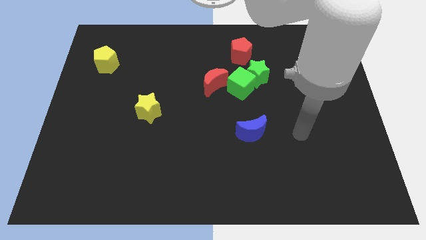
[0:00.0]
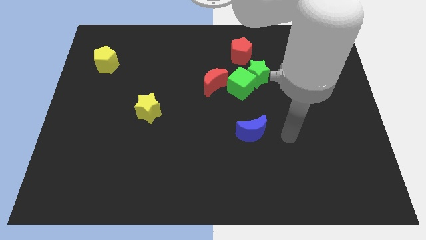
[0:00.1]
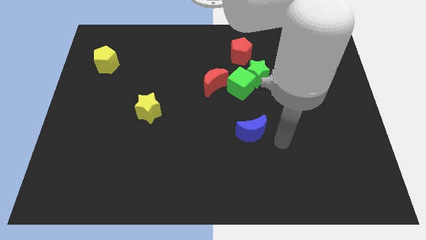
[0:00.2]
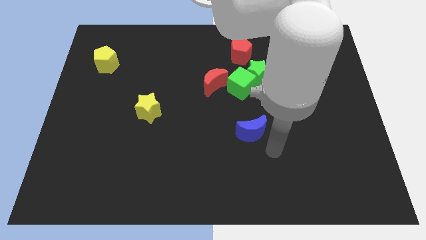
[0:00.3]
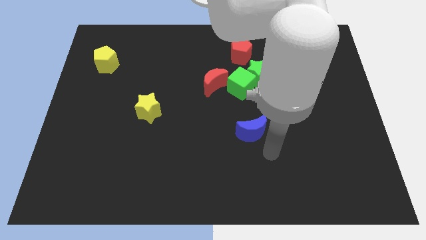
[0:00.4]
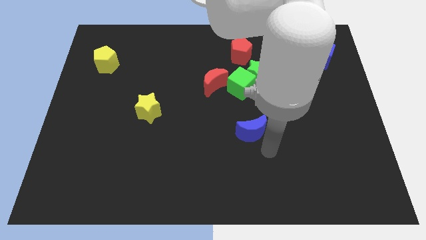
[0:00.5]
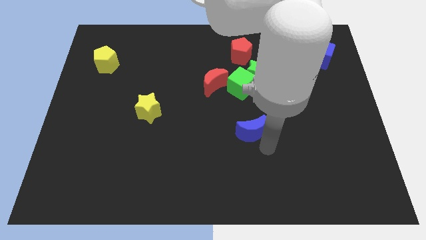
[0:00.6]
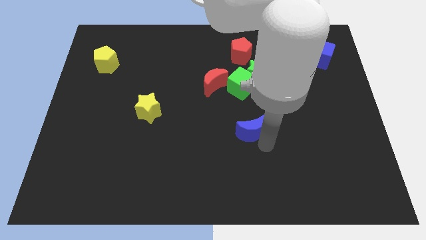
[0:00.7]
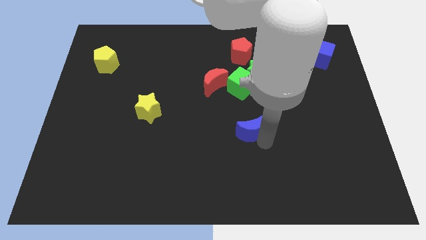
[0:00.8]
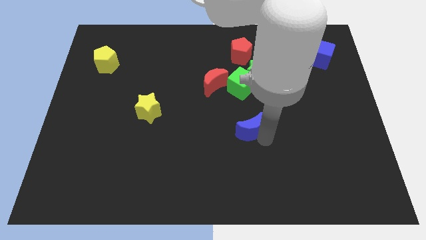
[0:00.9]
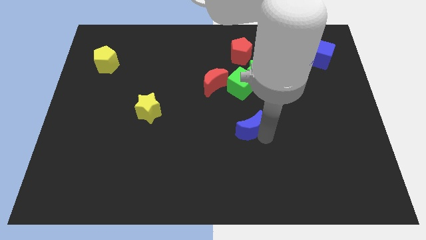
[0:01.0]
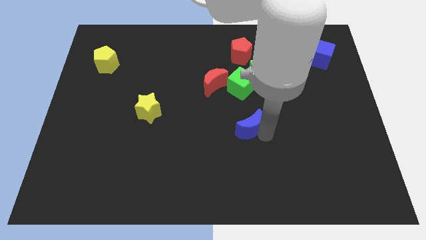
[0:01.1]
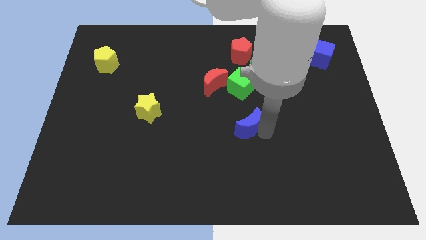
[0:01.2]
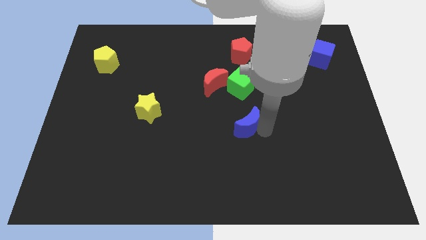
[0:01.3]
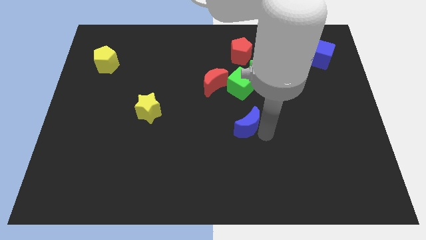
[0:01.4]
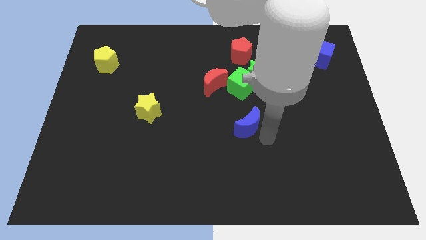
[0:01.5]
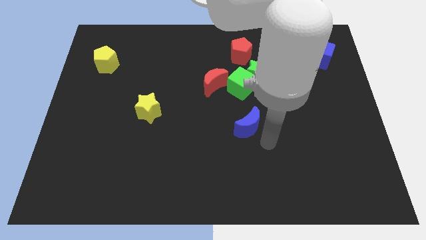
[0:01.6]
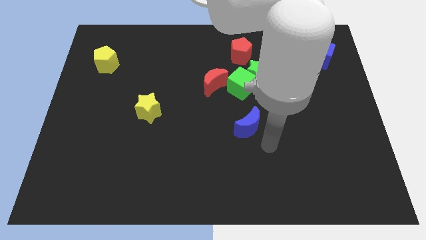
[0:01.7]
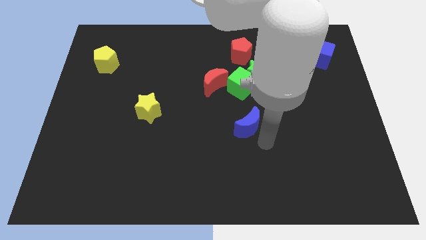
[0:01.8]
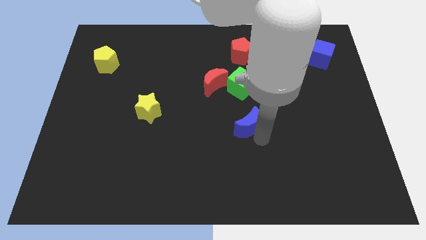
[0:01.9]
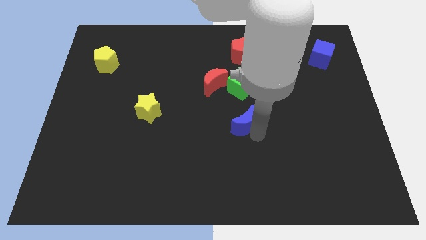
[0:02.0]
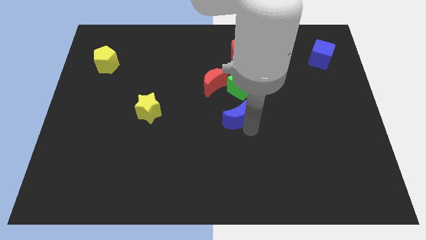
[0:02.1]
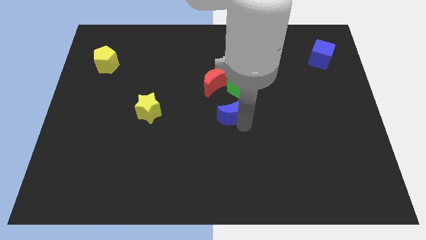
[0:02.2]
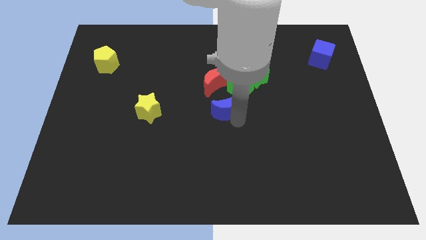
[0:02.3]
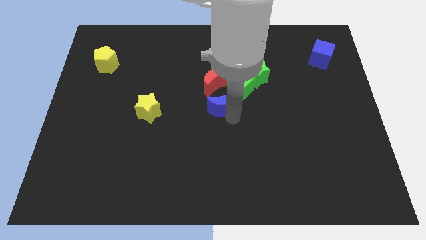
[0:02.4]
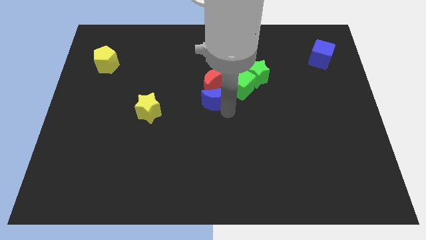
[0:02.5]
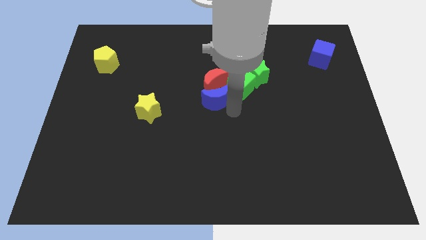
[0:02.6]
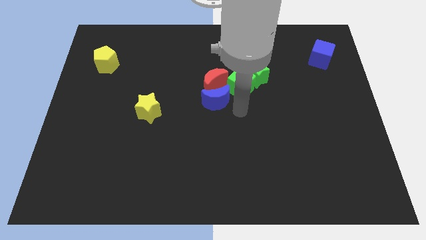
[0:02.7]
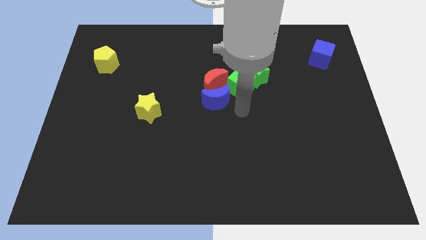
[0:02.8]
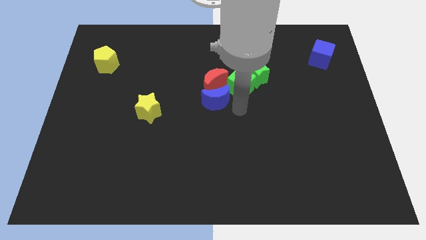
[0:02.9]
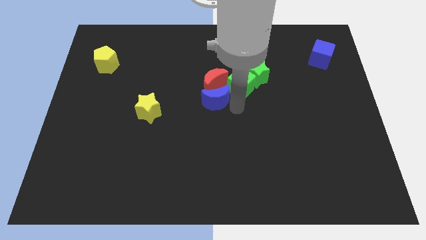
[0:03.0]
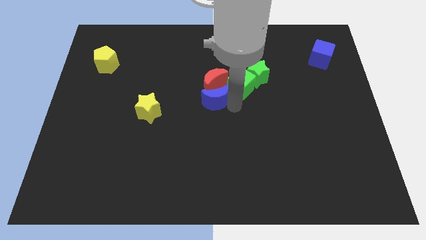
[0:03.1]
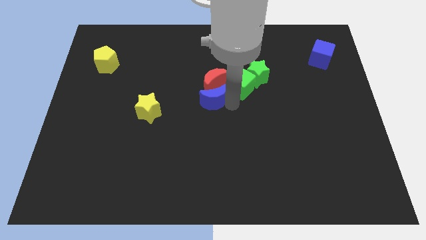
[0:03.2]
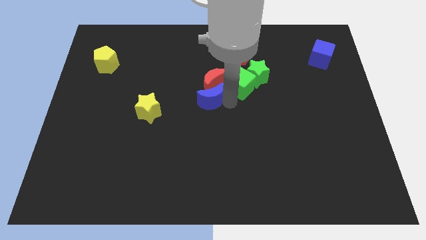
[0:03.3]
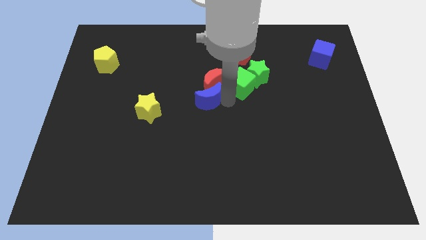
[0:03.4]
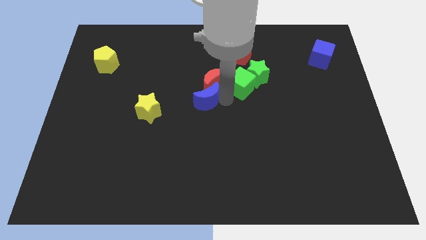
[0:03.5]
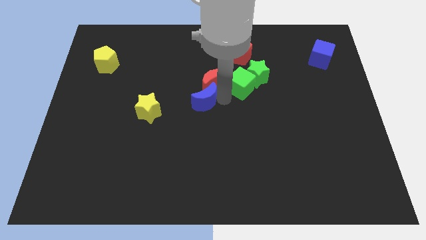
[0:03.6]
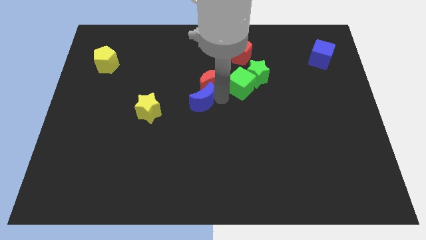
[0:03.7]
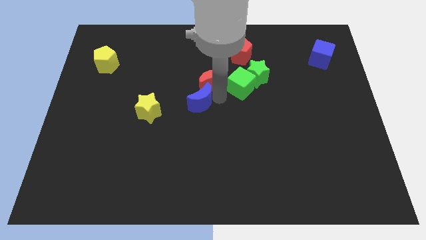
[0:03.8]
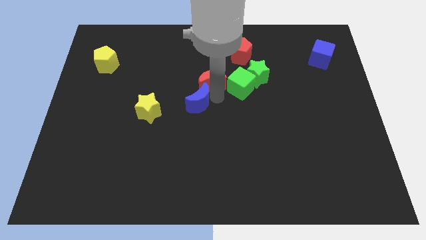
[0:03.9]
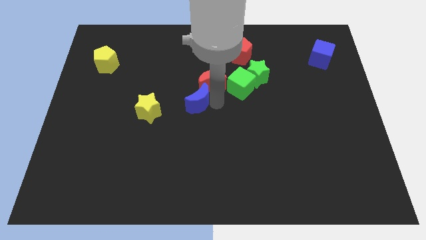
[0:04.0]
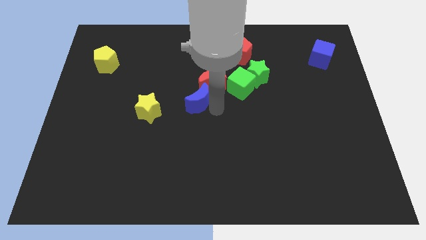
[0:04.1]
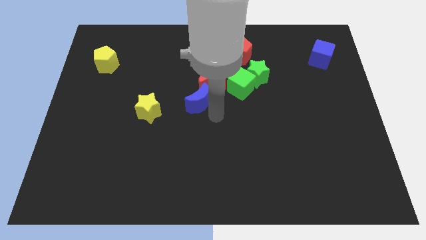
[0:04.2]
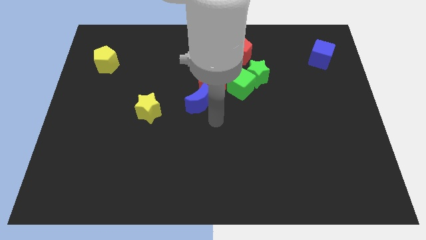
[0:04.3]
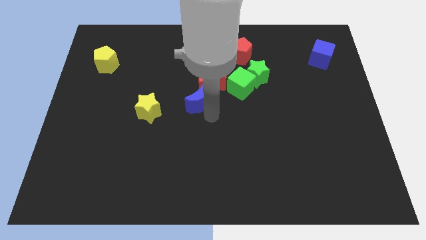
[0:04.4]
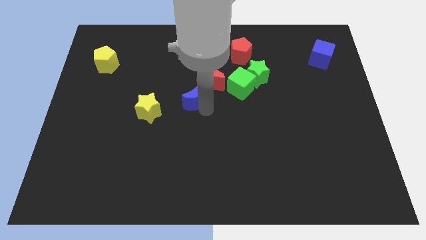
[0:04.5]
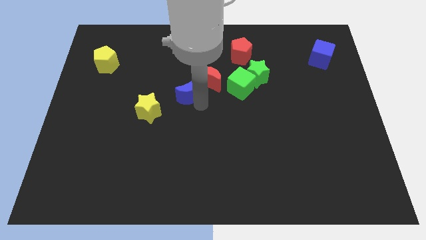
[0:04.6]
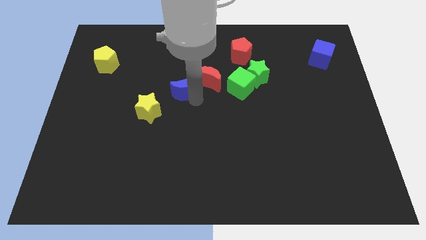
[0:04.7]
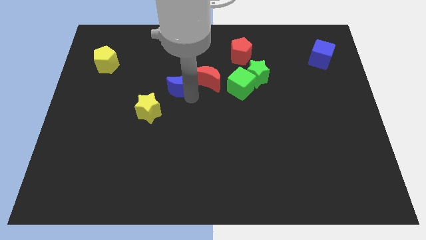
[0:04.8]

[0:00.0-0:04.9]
push the blue moon up and left

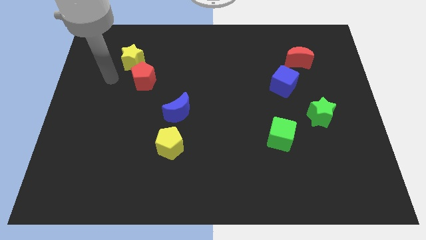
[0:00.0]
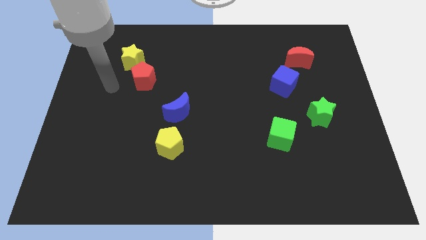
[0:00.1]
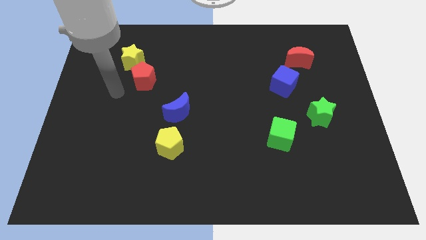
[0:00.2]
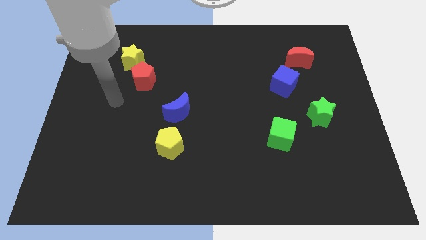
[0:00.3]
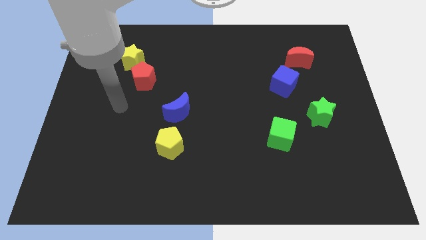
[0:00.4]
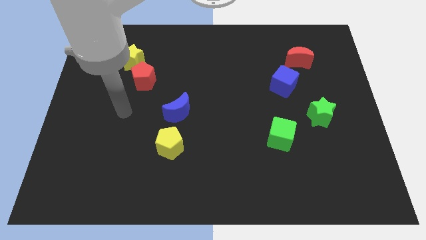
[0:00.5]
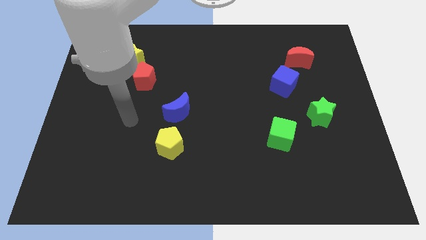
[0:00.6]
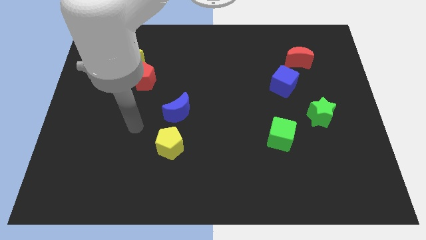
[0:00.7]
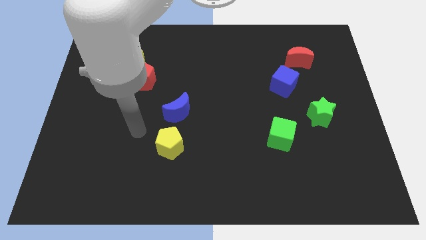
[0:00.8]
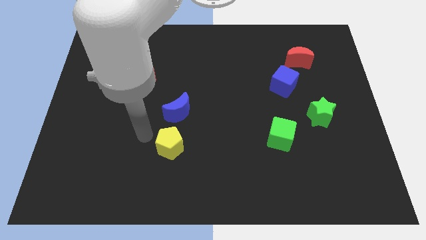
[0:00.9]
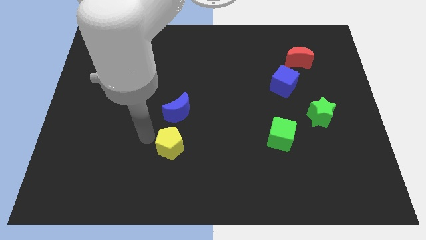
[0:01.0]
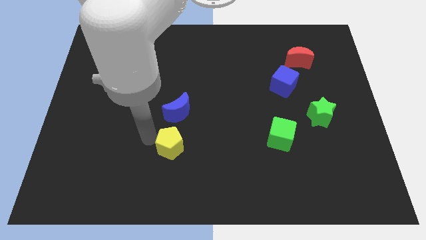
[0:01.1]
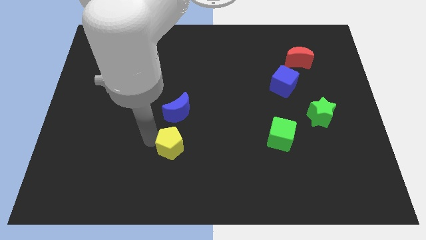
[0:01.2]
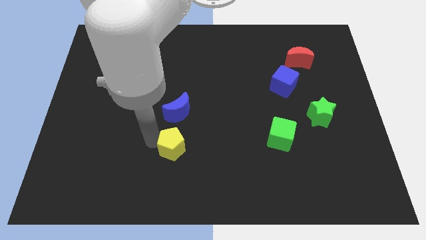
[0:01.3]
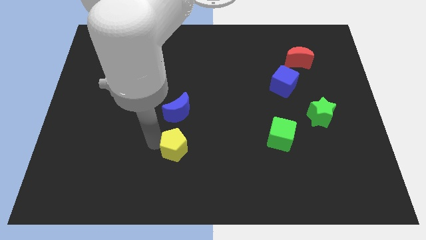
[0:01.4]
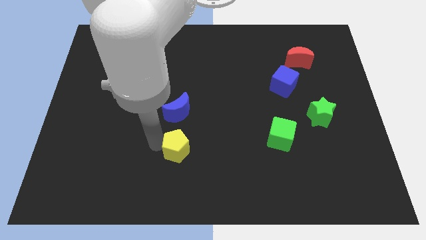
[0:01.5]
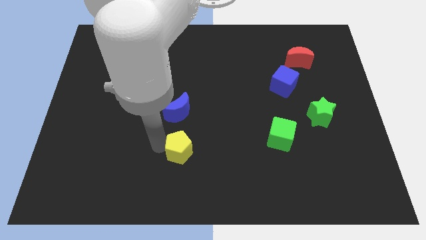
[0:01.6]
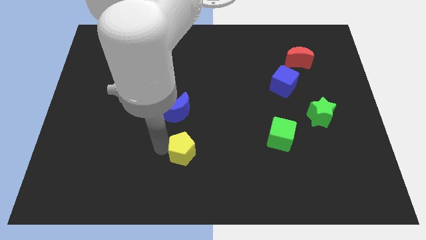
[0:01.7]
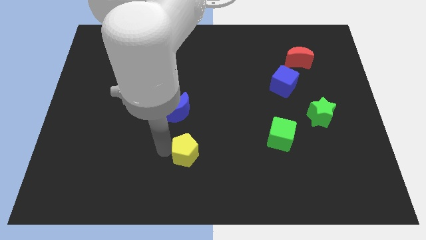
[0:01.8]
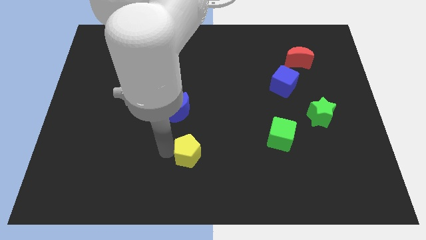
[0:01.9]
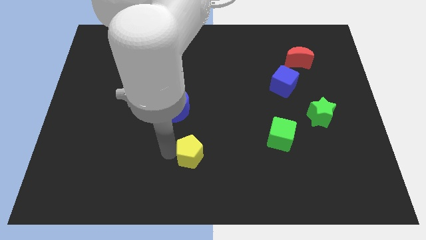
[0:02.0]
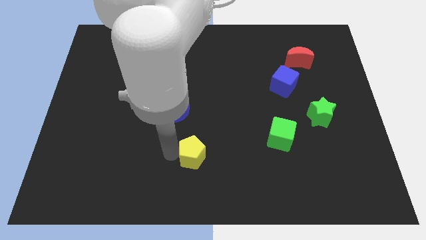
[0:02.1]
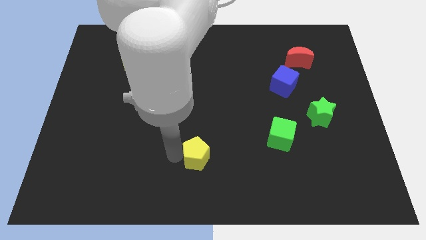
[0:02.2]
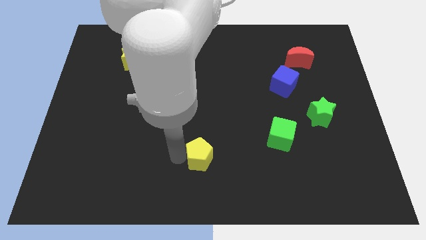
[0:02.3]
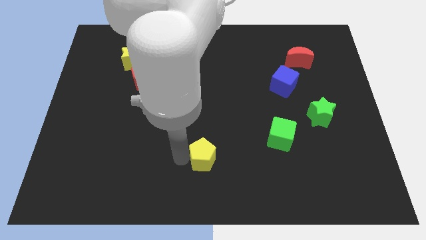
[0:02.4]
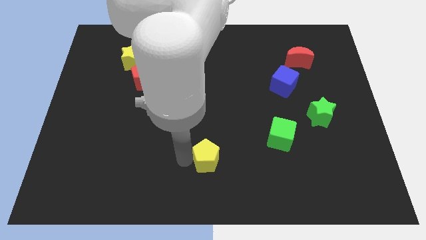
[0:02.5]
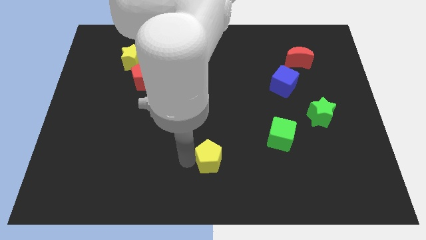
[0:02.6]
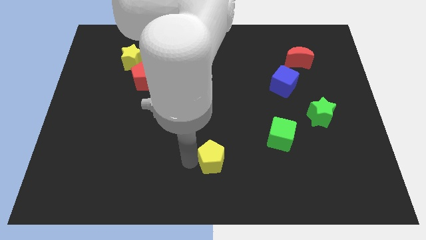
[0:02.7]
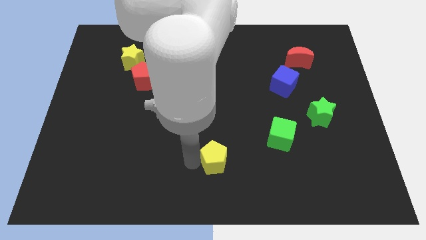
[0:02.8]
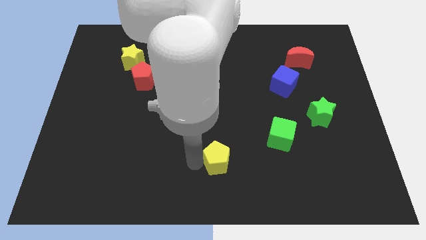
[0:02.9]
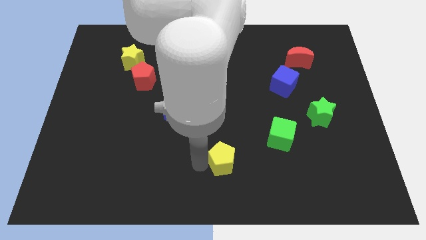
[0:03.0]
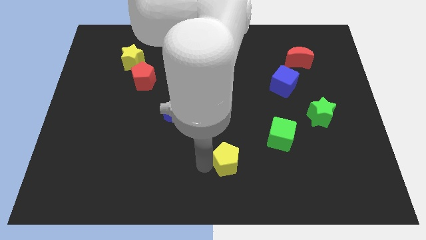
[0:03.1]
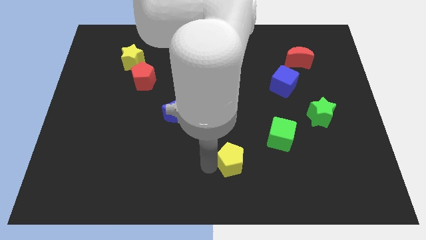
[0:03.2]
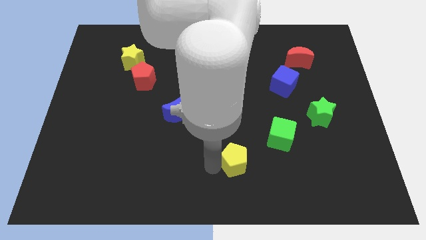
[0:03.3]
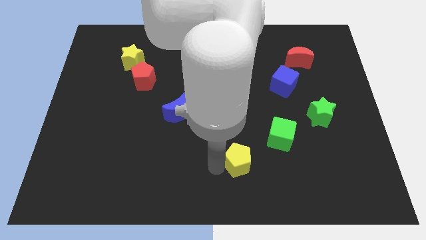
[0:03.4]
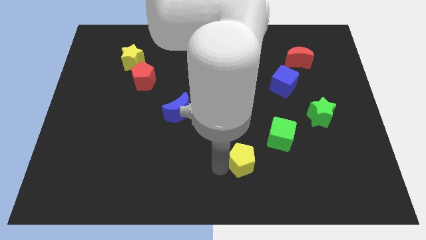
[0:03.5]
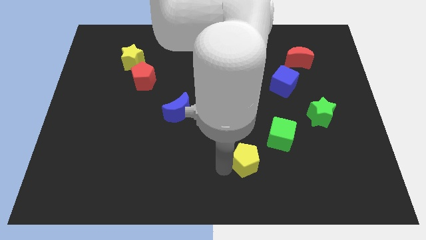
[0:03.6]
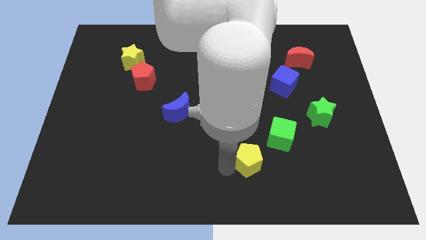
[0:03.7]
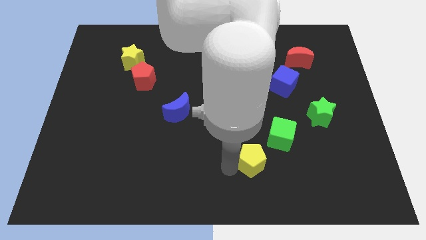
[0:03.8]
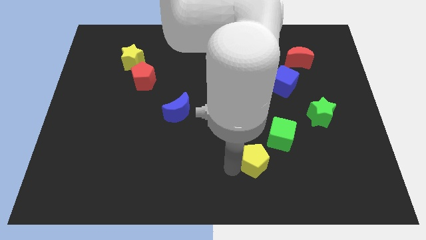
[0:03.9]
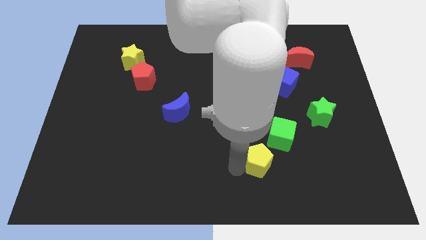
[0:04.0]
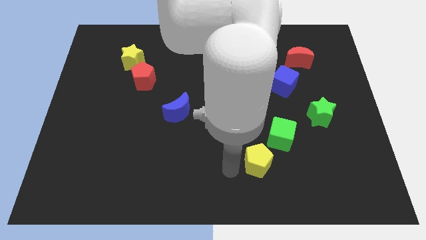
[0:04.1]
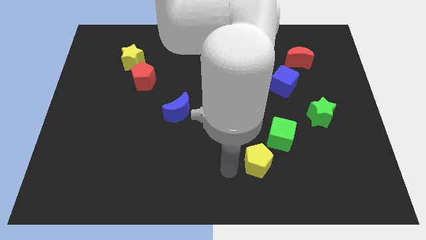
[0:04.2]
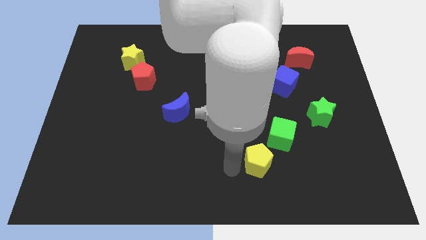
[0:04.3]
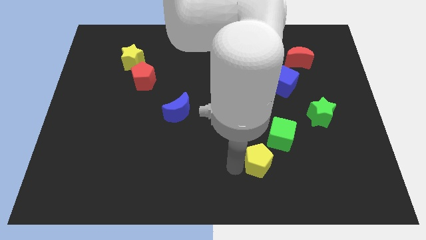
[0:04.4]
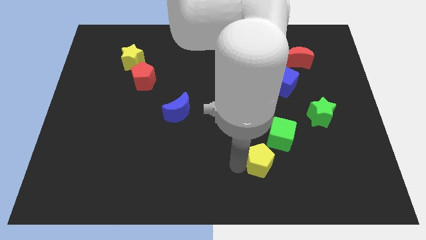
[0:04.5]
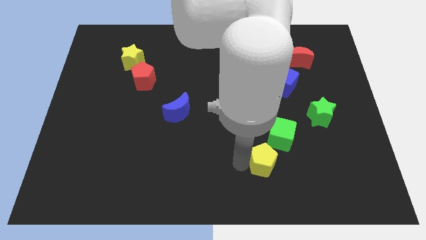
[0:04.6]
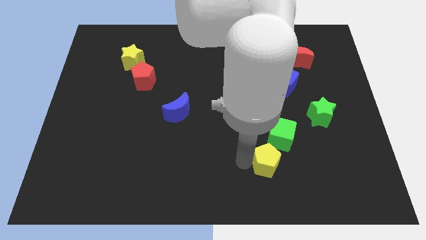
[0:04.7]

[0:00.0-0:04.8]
push the yellow pentagon to the right
